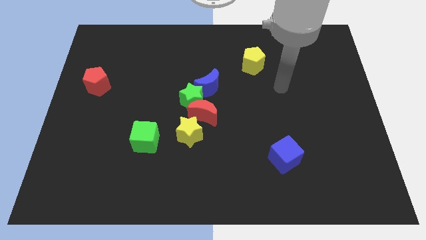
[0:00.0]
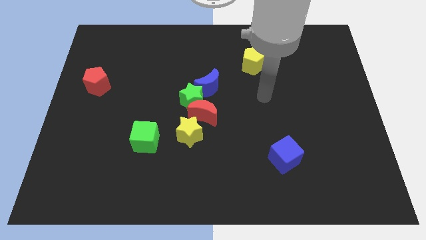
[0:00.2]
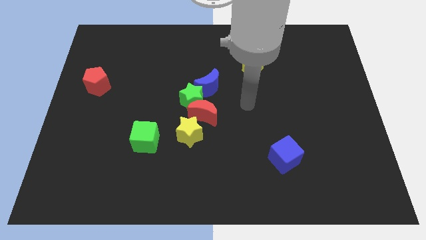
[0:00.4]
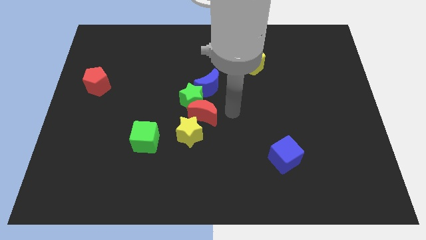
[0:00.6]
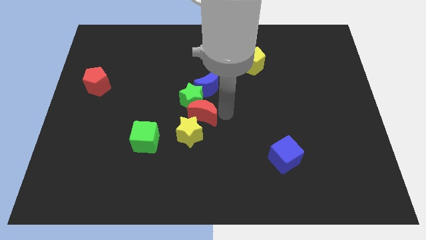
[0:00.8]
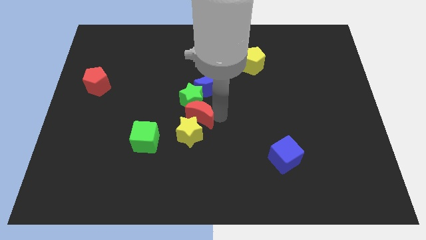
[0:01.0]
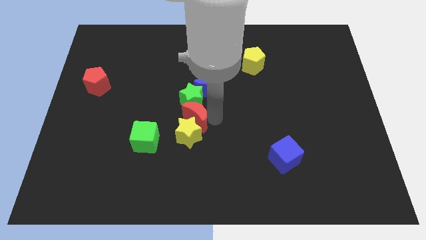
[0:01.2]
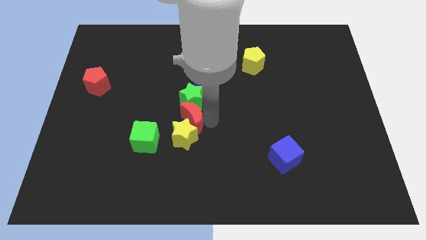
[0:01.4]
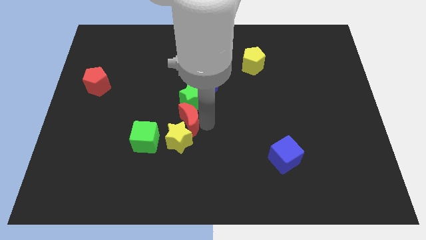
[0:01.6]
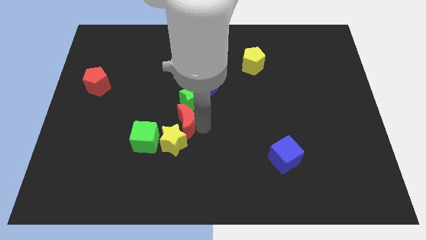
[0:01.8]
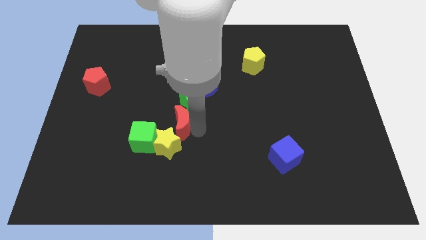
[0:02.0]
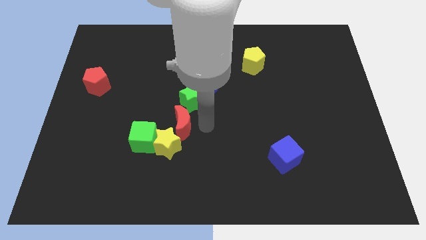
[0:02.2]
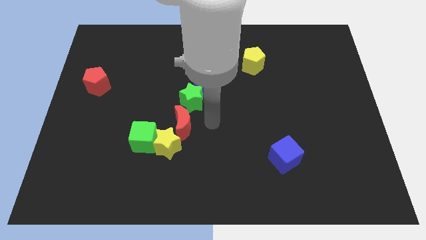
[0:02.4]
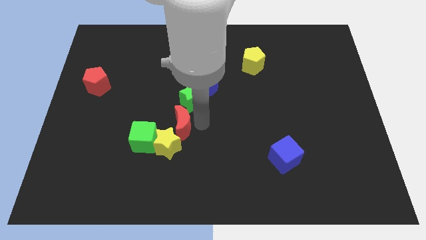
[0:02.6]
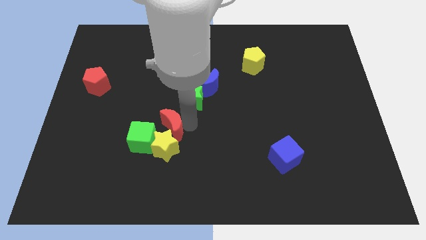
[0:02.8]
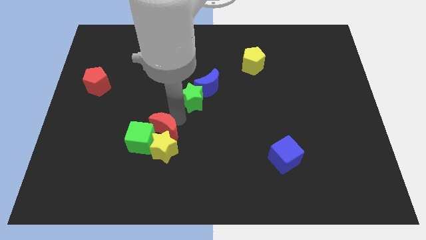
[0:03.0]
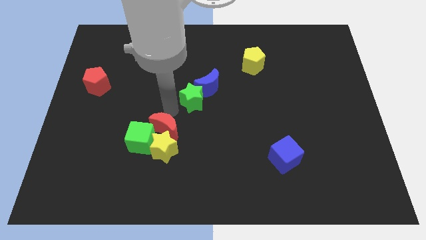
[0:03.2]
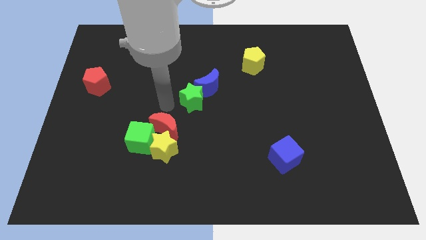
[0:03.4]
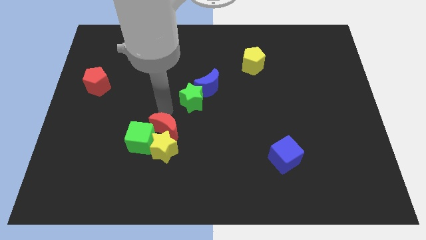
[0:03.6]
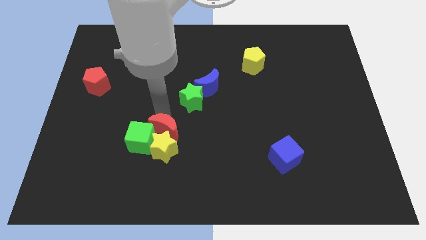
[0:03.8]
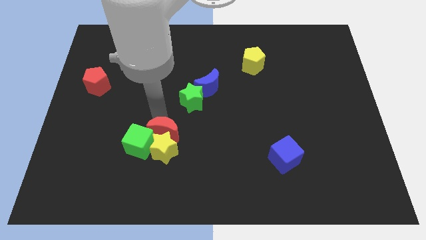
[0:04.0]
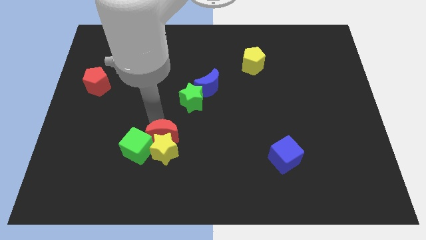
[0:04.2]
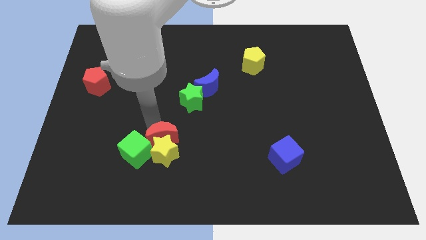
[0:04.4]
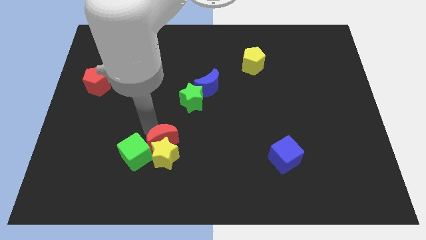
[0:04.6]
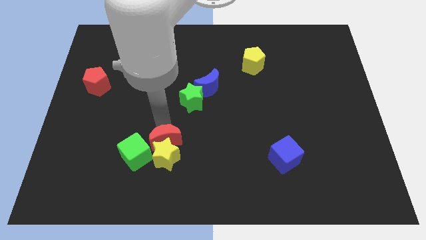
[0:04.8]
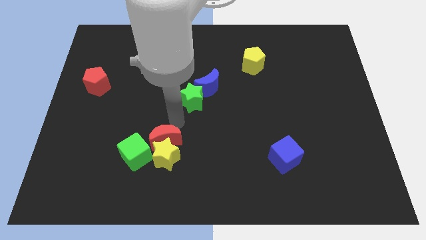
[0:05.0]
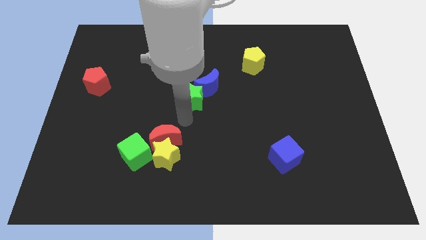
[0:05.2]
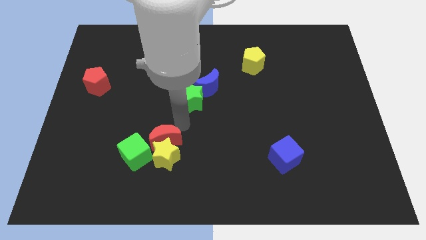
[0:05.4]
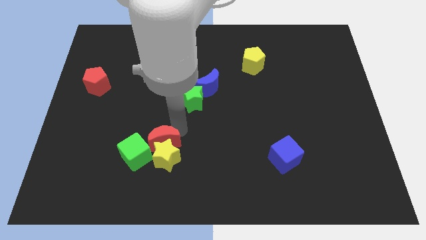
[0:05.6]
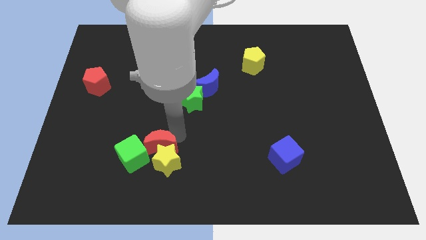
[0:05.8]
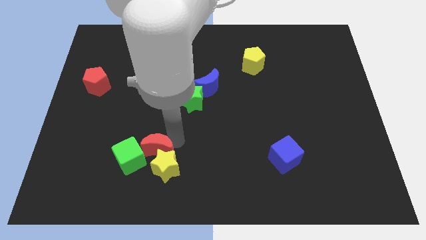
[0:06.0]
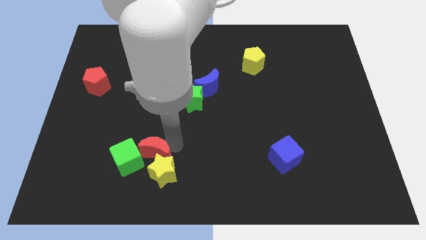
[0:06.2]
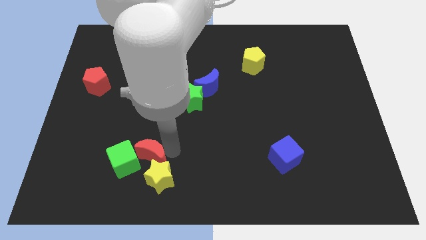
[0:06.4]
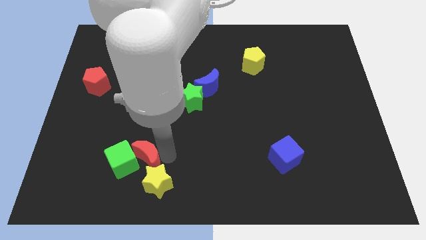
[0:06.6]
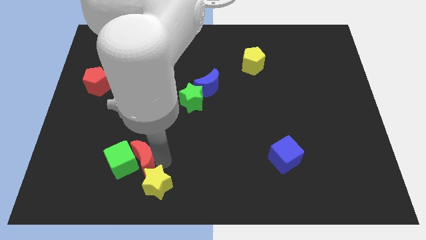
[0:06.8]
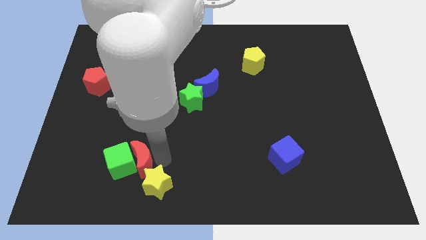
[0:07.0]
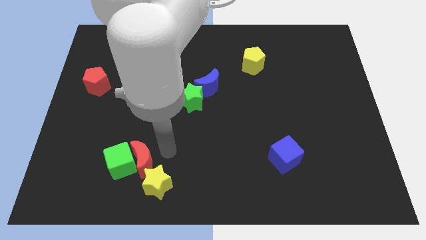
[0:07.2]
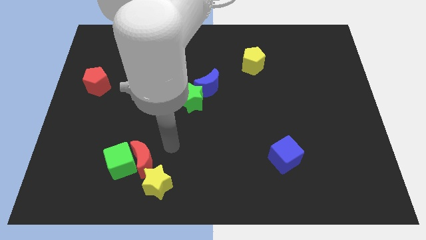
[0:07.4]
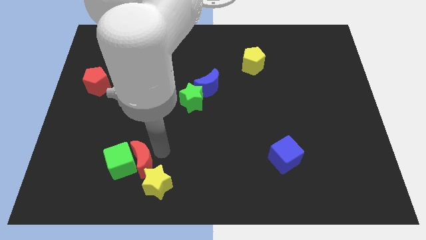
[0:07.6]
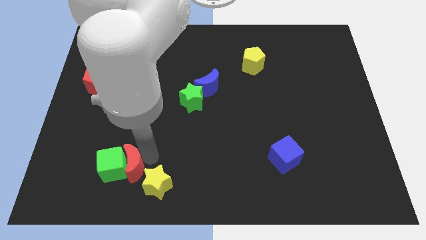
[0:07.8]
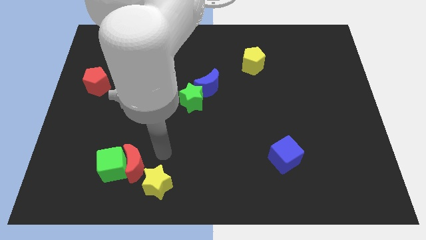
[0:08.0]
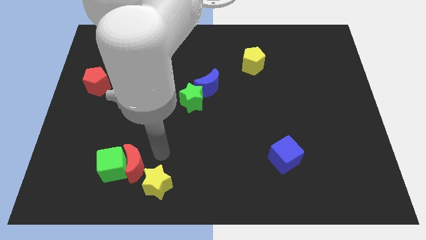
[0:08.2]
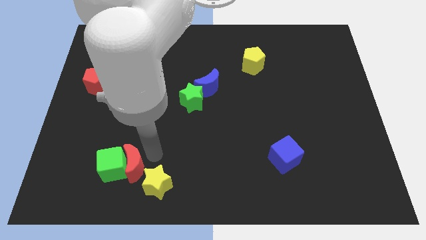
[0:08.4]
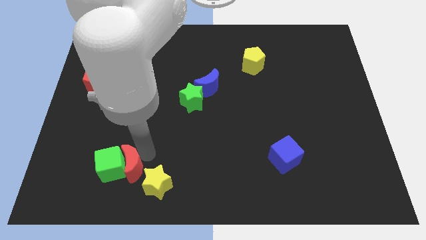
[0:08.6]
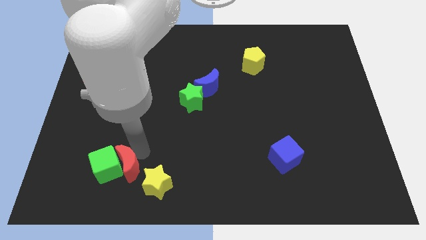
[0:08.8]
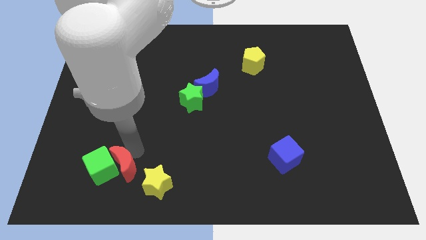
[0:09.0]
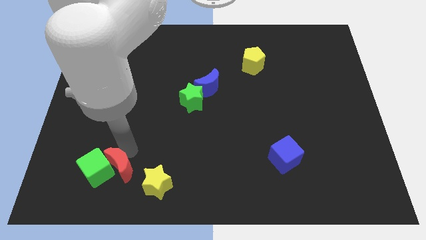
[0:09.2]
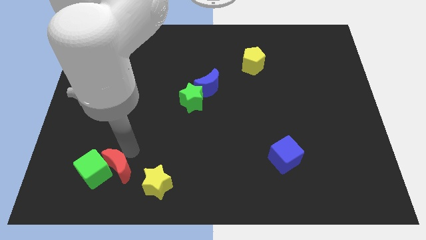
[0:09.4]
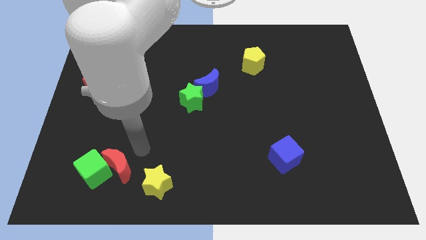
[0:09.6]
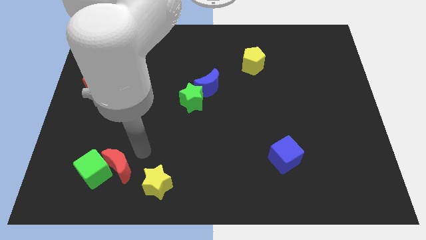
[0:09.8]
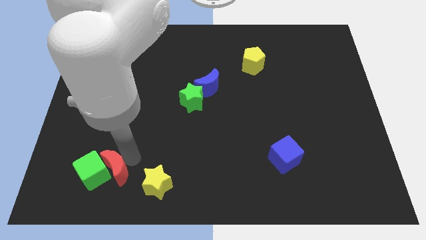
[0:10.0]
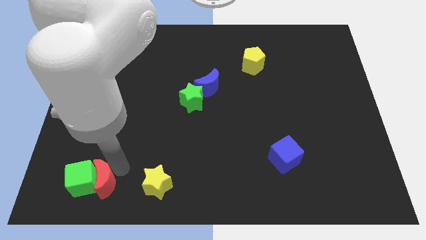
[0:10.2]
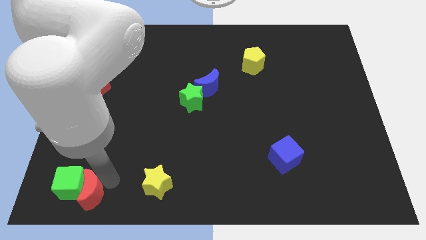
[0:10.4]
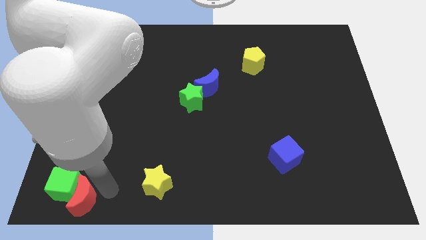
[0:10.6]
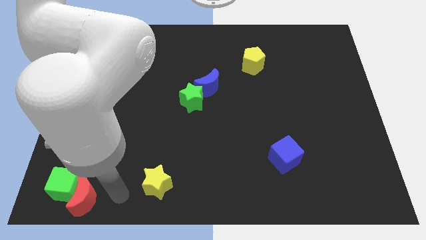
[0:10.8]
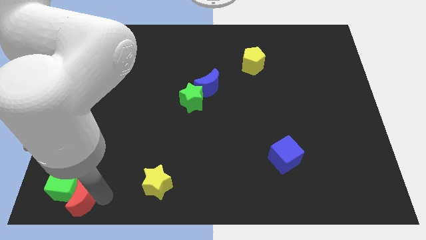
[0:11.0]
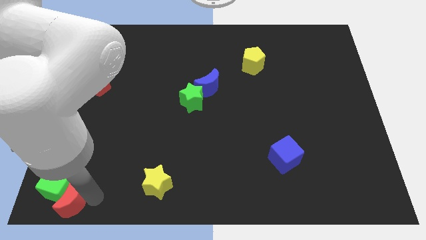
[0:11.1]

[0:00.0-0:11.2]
push the red moon to the bottom left

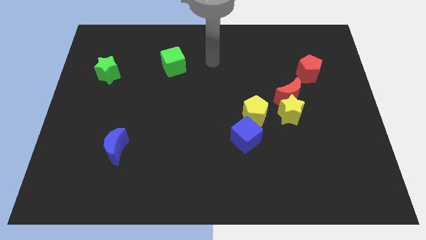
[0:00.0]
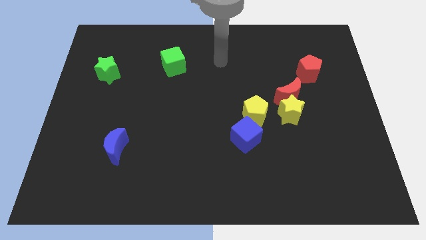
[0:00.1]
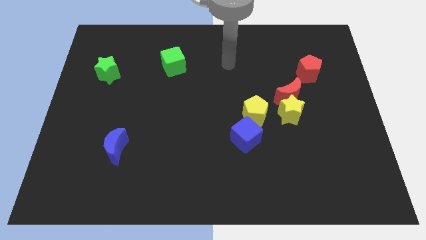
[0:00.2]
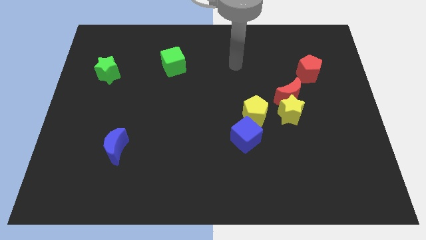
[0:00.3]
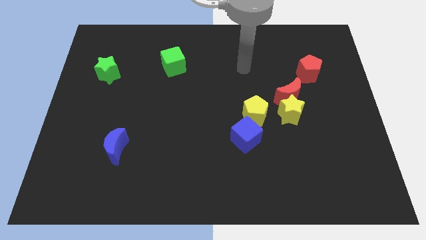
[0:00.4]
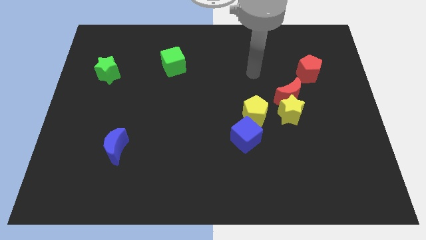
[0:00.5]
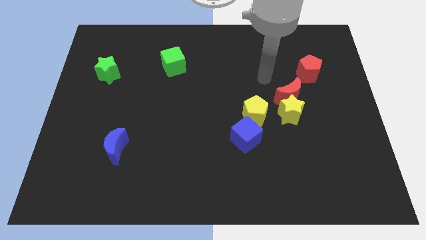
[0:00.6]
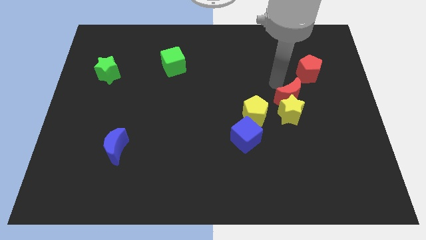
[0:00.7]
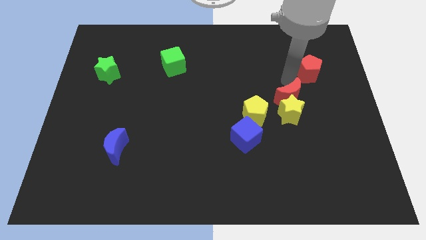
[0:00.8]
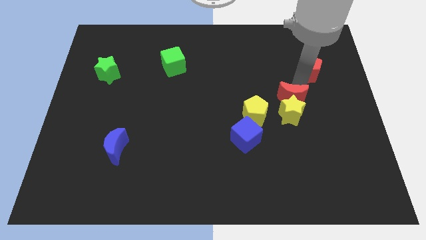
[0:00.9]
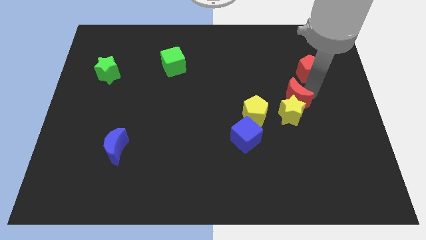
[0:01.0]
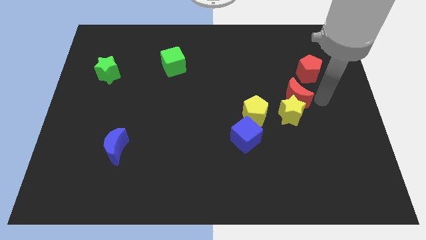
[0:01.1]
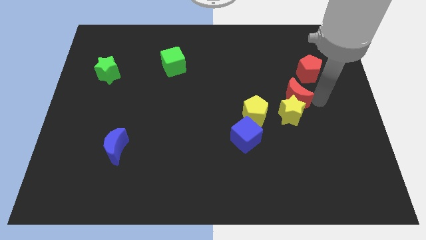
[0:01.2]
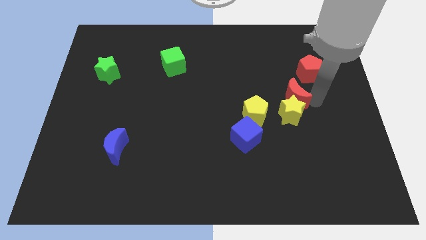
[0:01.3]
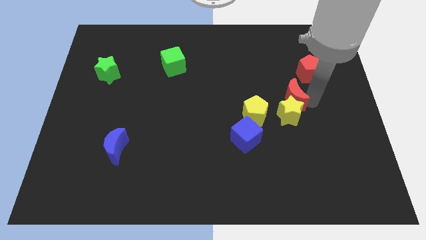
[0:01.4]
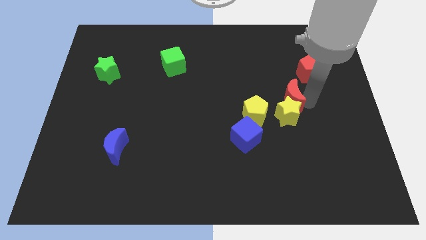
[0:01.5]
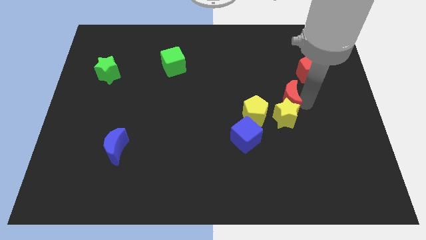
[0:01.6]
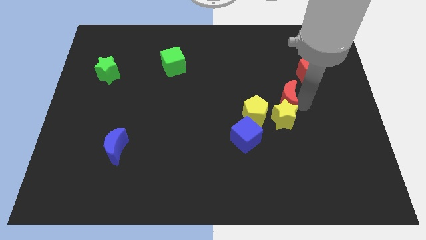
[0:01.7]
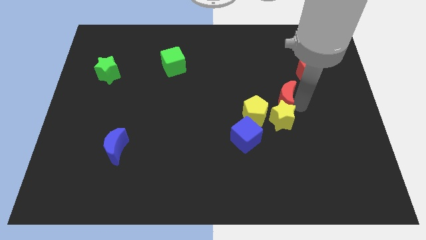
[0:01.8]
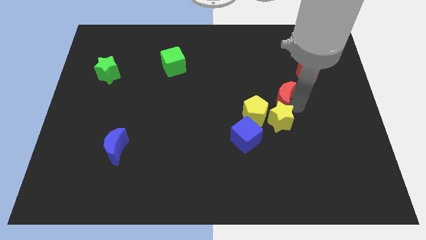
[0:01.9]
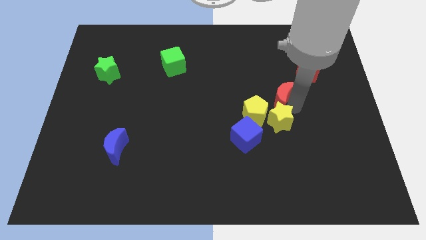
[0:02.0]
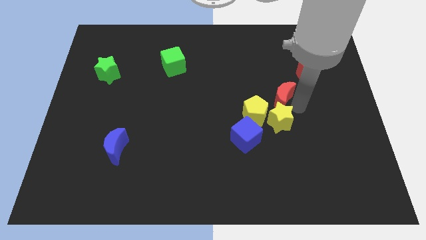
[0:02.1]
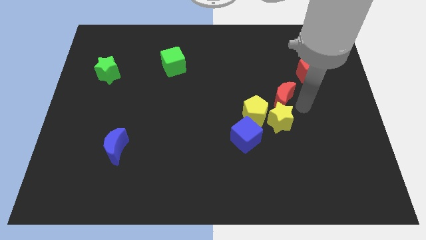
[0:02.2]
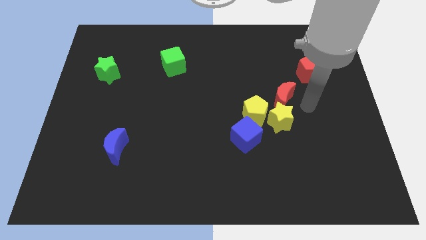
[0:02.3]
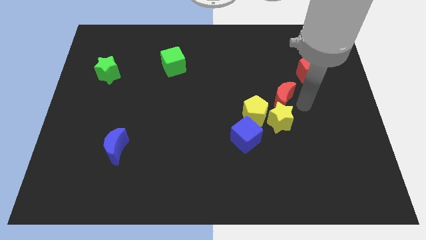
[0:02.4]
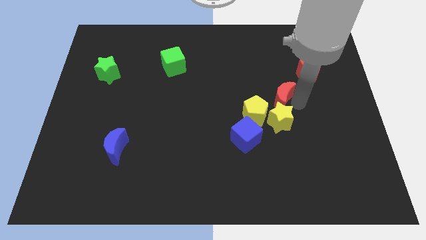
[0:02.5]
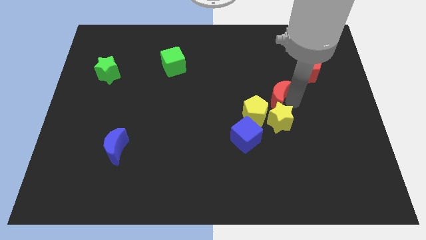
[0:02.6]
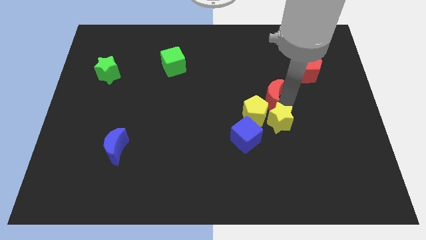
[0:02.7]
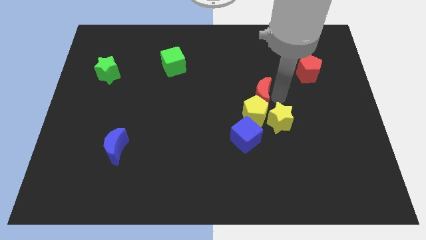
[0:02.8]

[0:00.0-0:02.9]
push the red moon to the center
